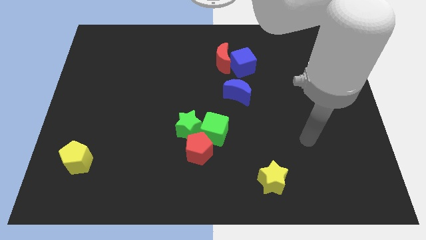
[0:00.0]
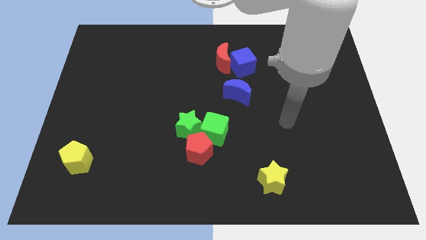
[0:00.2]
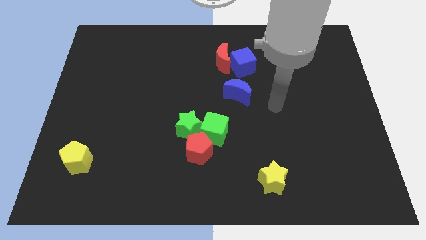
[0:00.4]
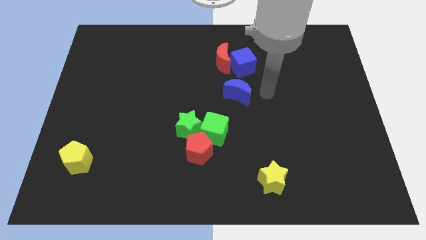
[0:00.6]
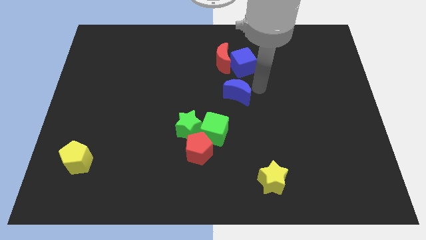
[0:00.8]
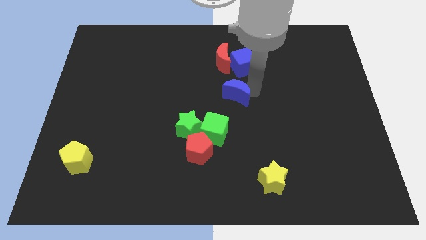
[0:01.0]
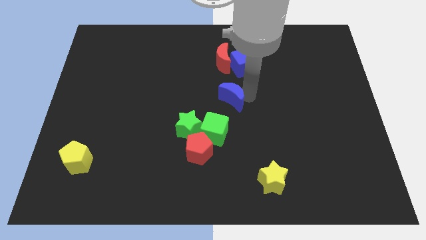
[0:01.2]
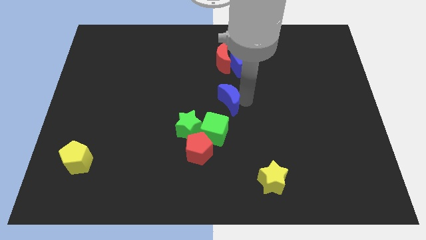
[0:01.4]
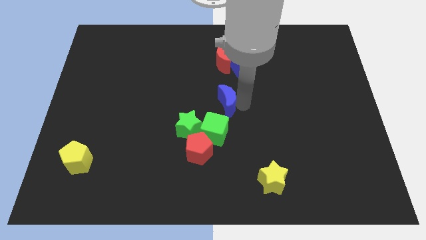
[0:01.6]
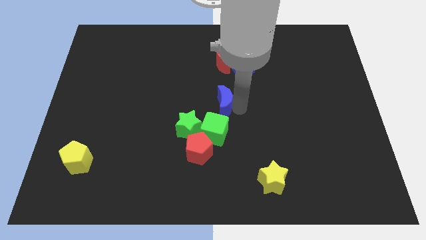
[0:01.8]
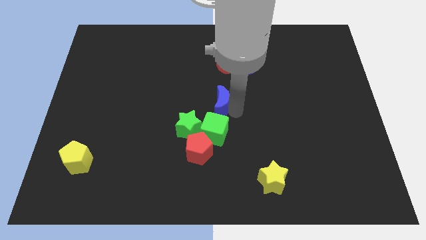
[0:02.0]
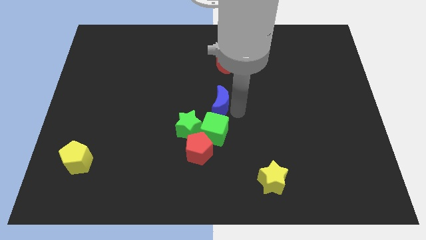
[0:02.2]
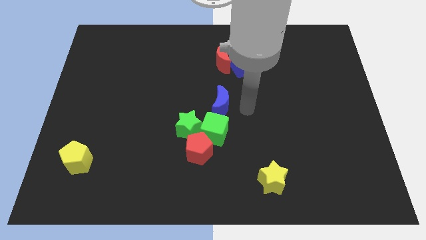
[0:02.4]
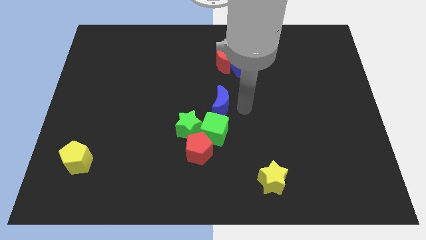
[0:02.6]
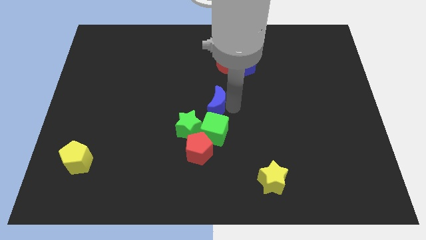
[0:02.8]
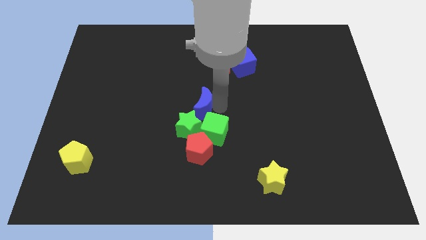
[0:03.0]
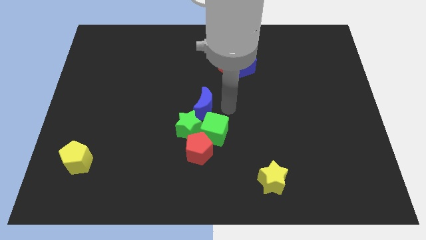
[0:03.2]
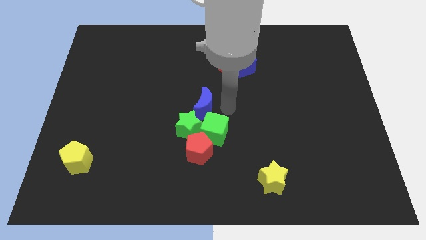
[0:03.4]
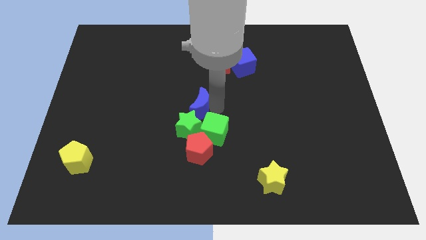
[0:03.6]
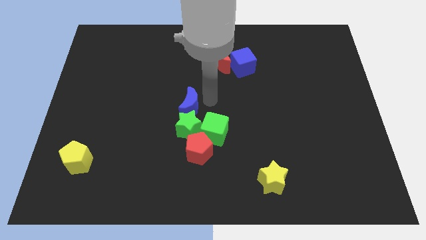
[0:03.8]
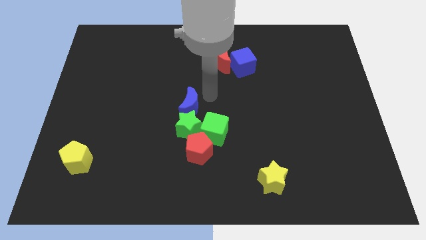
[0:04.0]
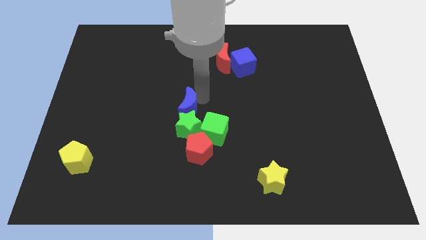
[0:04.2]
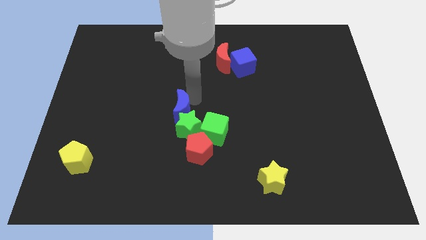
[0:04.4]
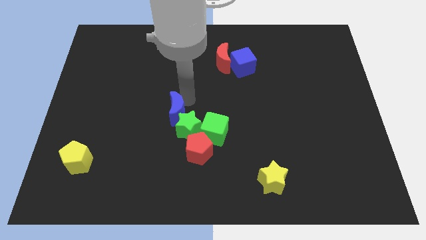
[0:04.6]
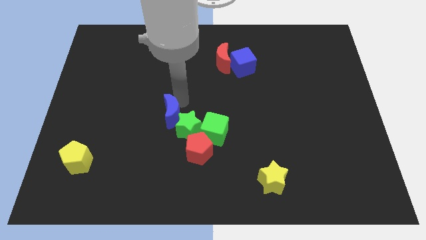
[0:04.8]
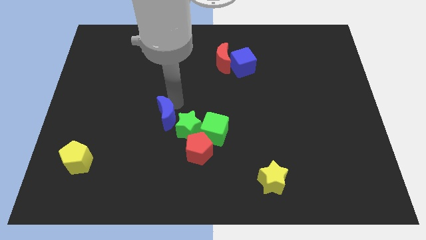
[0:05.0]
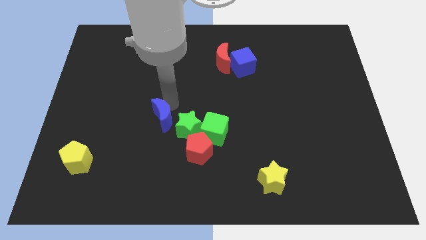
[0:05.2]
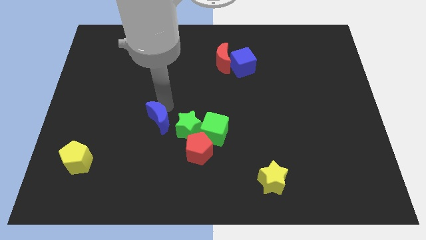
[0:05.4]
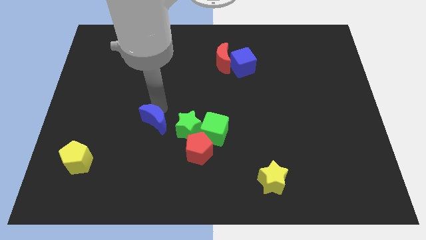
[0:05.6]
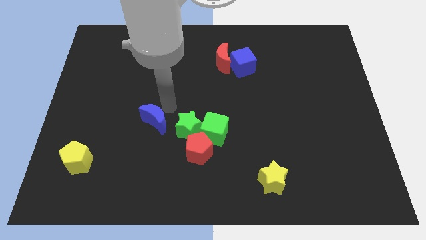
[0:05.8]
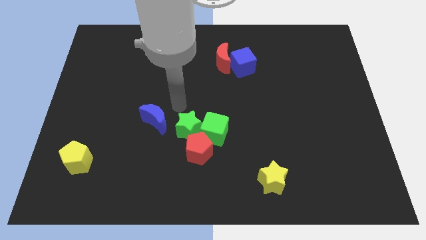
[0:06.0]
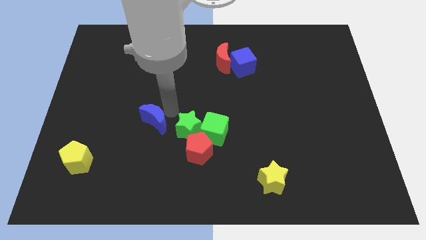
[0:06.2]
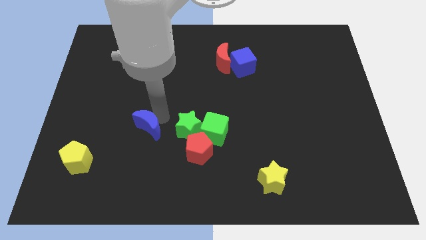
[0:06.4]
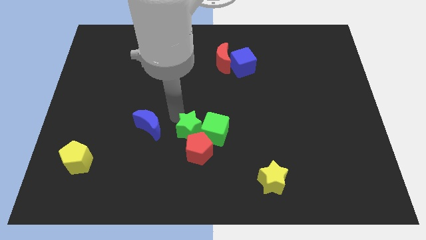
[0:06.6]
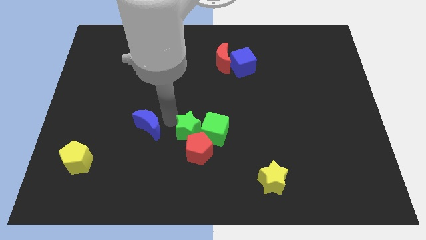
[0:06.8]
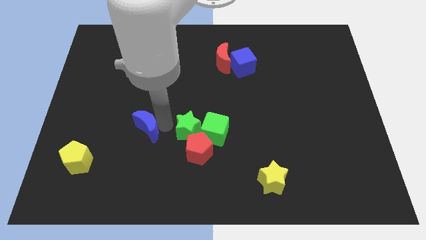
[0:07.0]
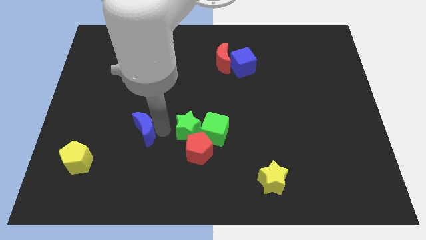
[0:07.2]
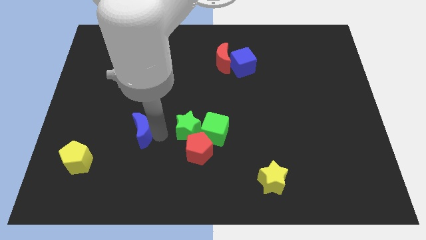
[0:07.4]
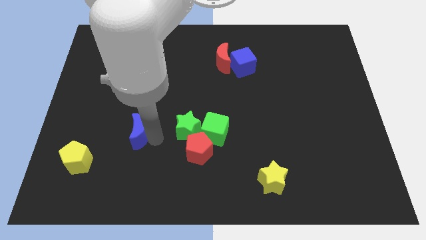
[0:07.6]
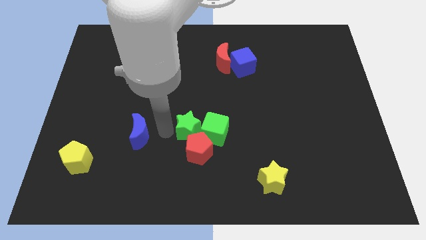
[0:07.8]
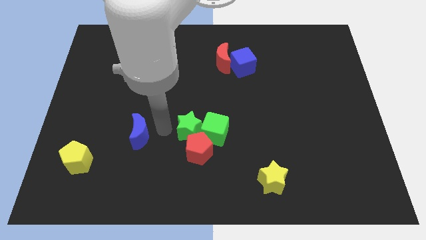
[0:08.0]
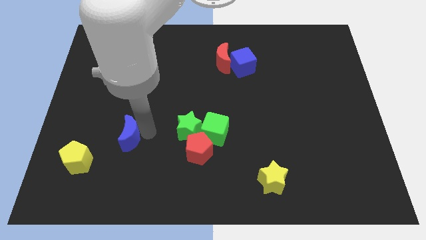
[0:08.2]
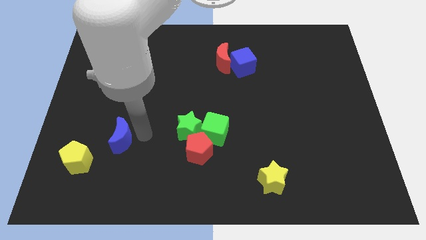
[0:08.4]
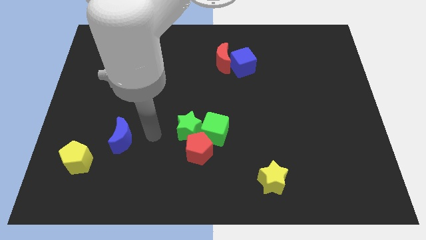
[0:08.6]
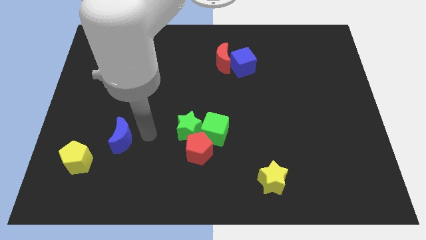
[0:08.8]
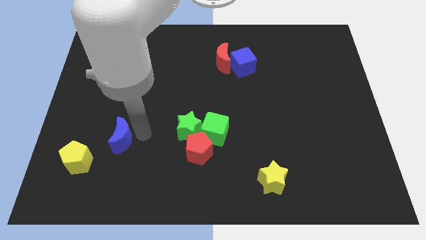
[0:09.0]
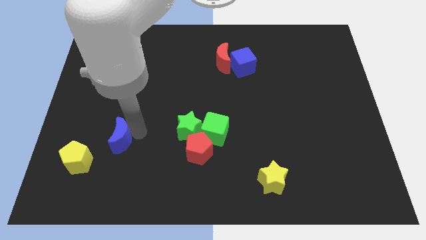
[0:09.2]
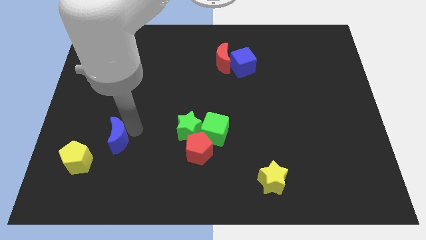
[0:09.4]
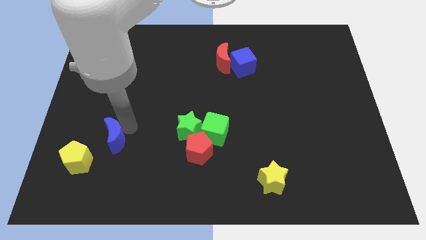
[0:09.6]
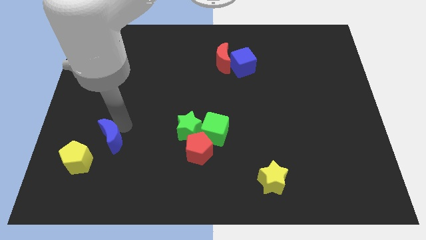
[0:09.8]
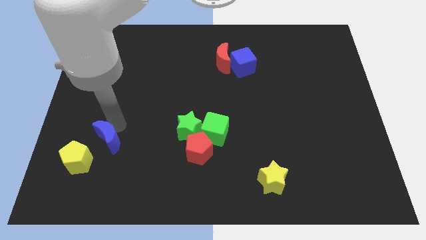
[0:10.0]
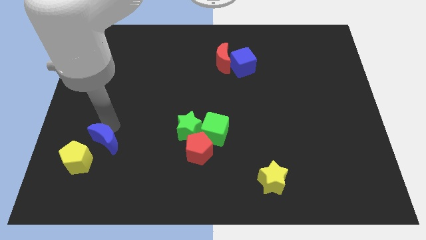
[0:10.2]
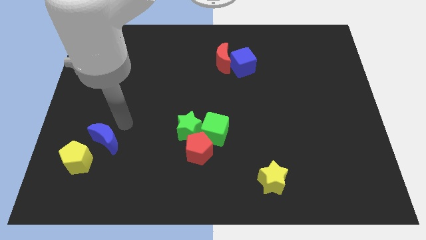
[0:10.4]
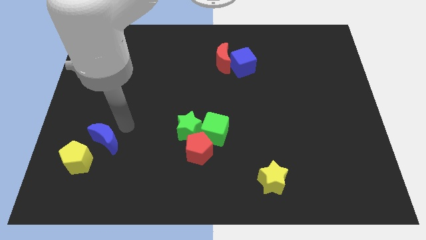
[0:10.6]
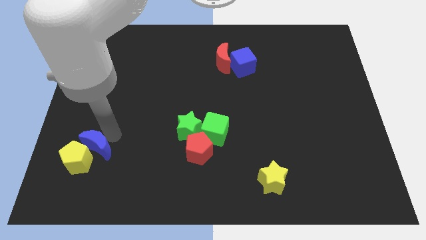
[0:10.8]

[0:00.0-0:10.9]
move the blue moon towards the yellow pentagon

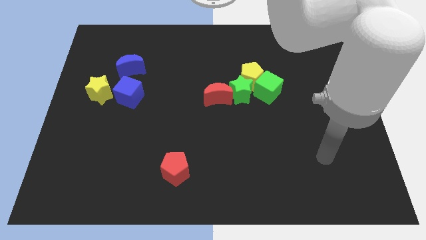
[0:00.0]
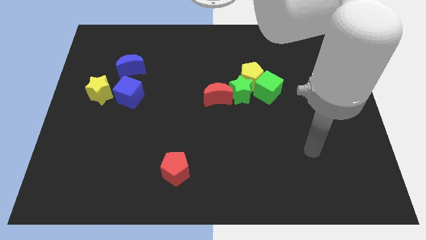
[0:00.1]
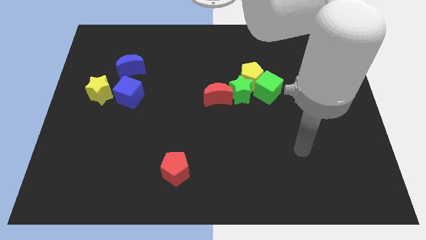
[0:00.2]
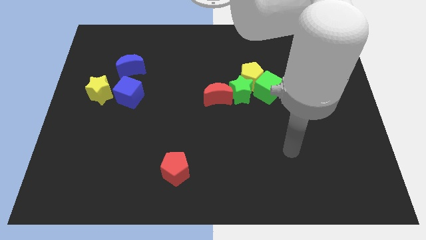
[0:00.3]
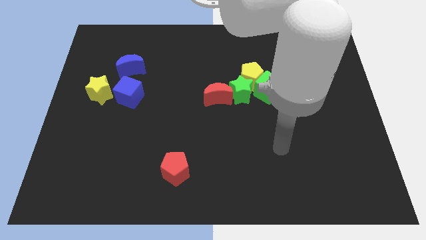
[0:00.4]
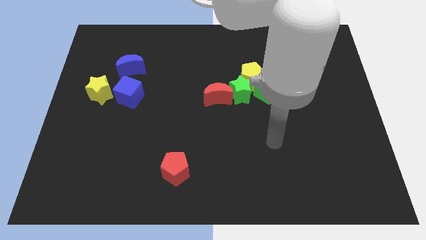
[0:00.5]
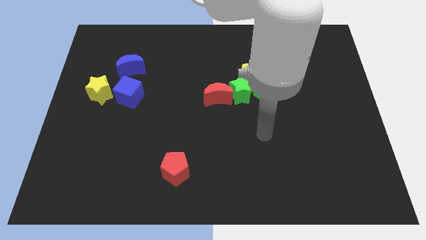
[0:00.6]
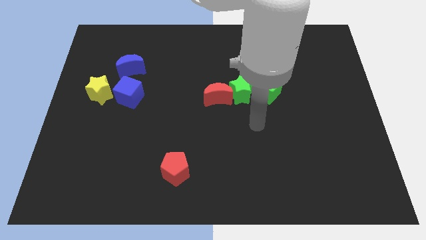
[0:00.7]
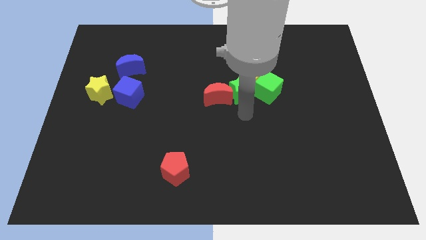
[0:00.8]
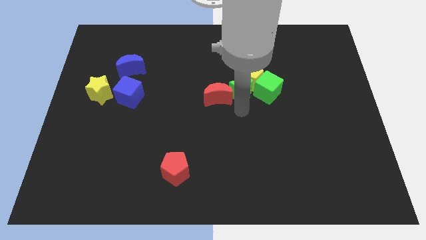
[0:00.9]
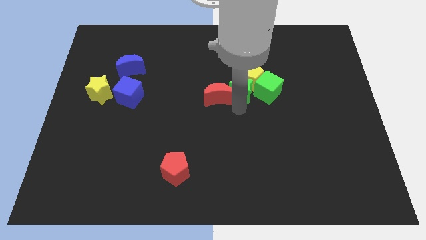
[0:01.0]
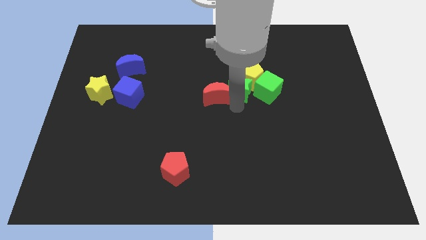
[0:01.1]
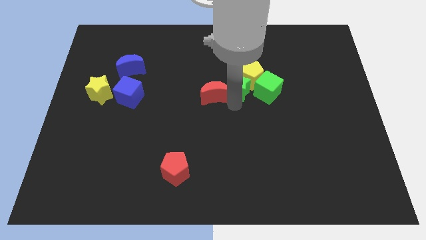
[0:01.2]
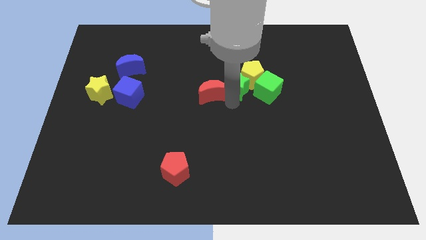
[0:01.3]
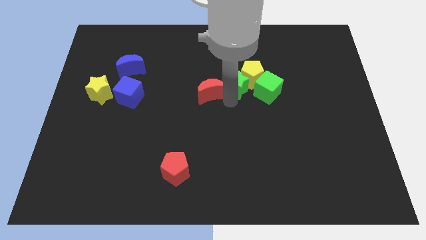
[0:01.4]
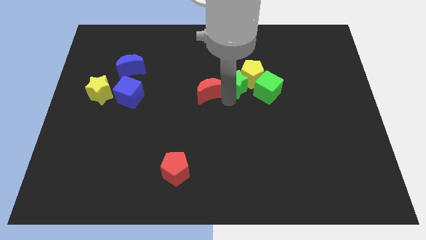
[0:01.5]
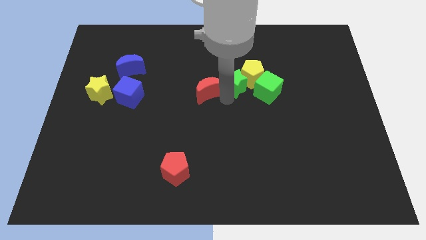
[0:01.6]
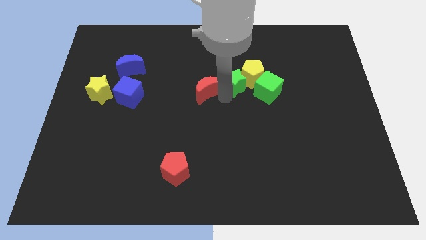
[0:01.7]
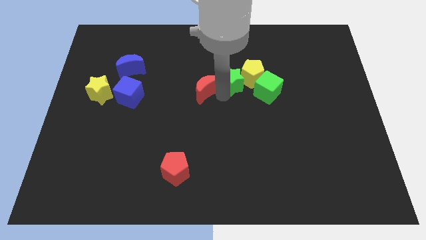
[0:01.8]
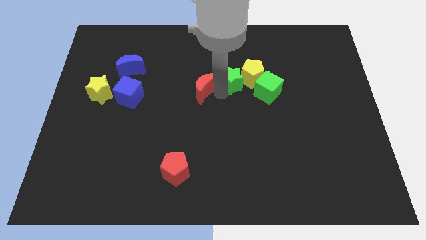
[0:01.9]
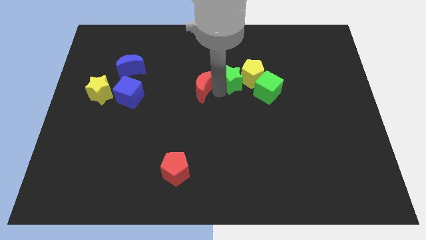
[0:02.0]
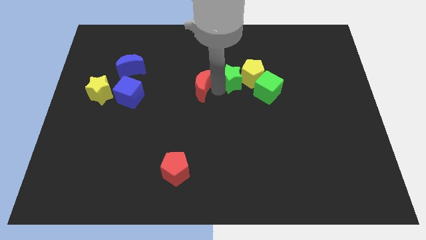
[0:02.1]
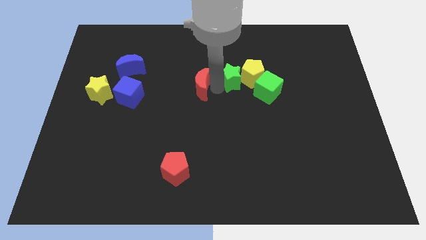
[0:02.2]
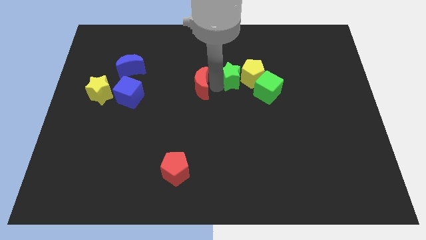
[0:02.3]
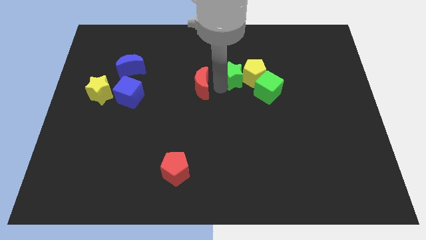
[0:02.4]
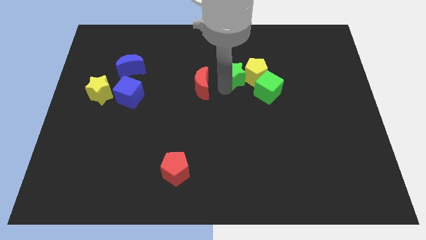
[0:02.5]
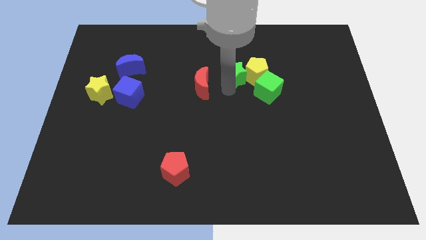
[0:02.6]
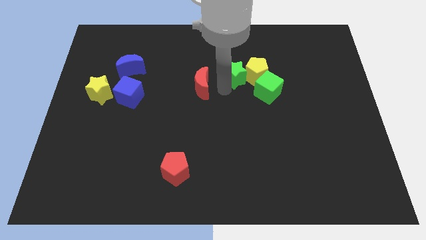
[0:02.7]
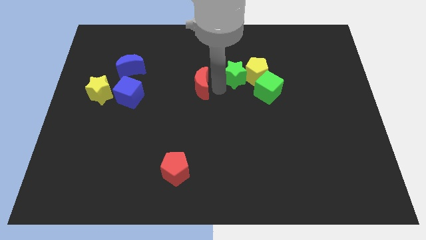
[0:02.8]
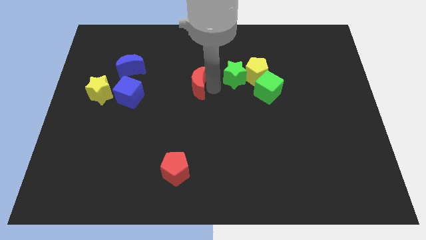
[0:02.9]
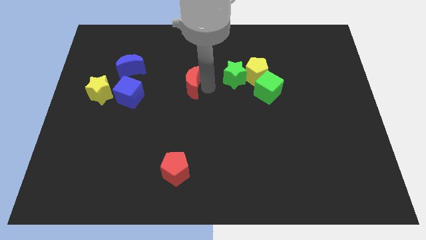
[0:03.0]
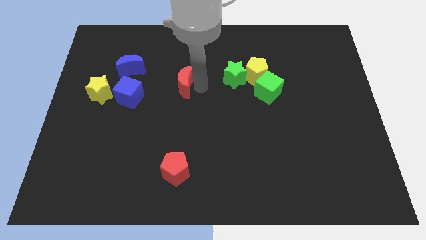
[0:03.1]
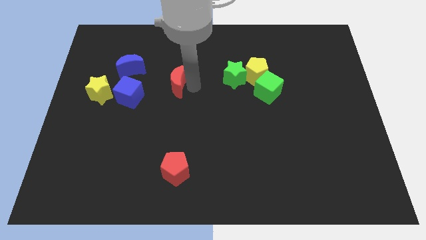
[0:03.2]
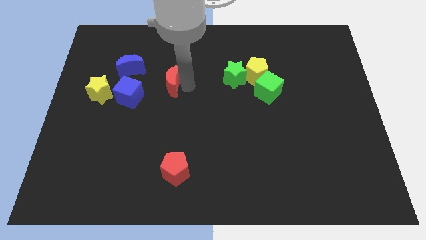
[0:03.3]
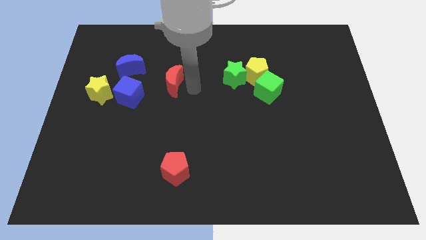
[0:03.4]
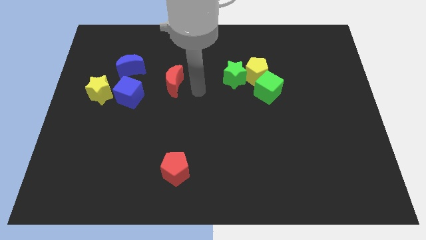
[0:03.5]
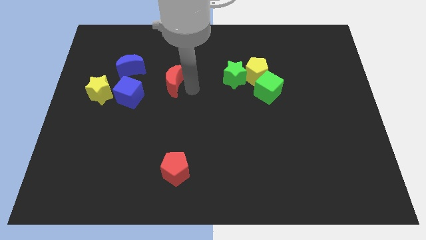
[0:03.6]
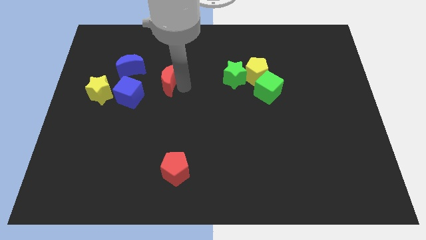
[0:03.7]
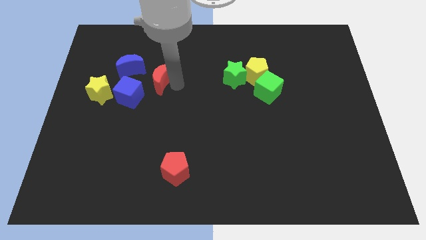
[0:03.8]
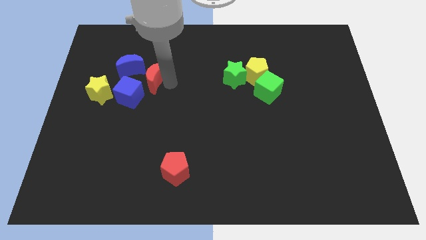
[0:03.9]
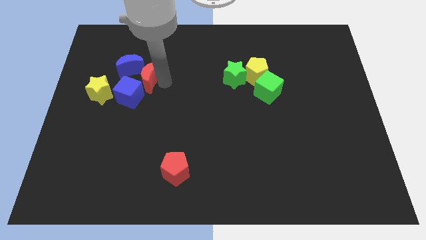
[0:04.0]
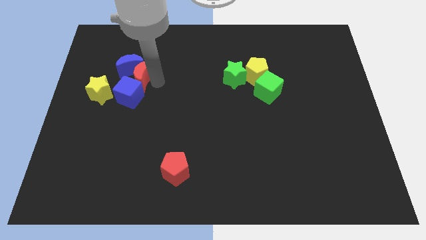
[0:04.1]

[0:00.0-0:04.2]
push the red moon towards the blue moon
